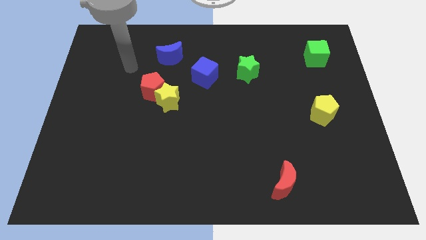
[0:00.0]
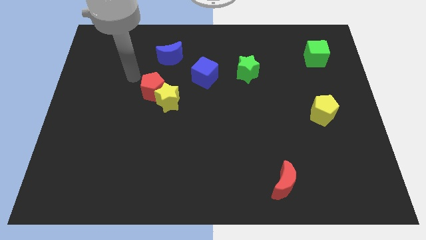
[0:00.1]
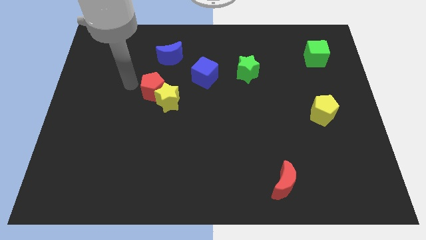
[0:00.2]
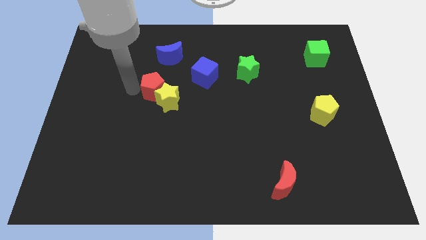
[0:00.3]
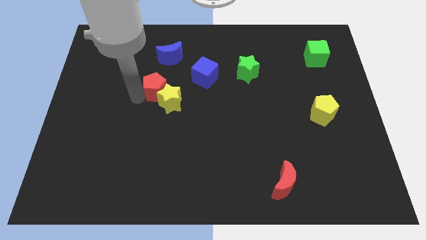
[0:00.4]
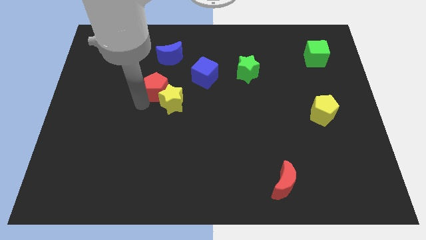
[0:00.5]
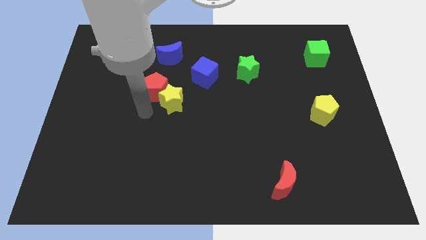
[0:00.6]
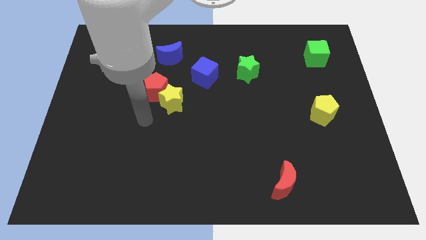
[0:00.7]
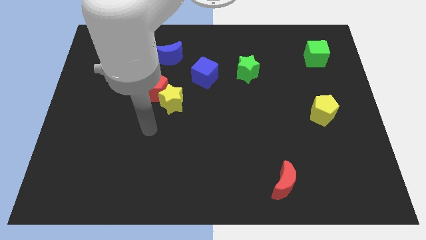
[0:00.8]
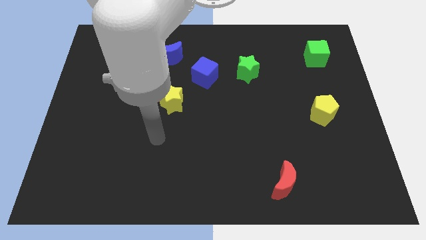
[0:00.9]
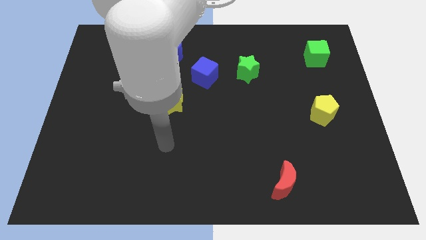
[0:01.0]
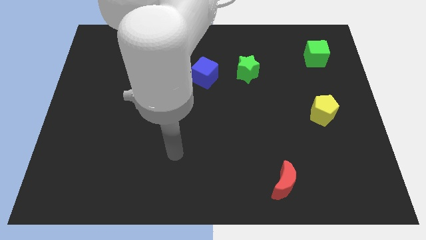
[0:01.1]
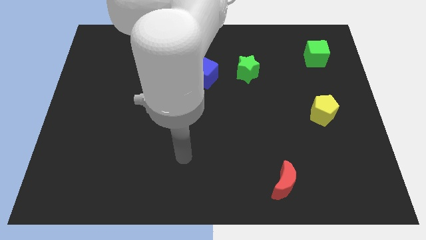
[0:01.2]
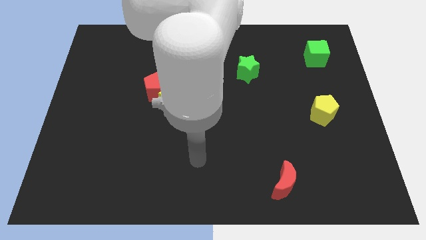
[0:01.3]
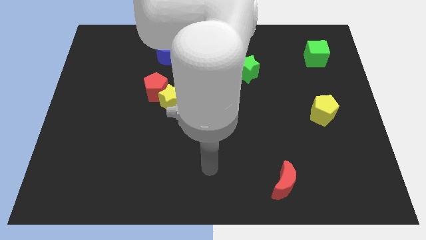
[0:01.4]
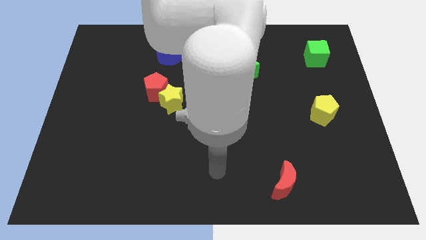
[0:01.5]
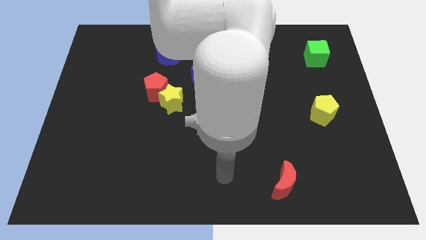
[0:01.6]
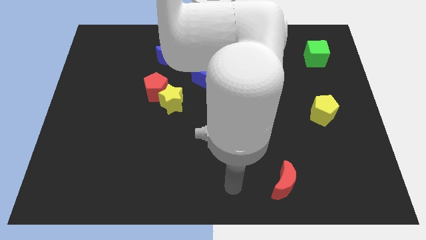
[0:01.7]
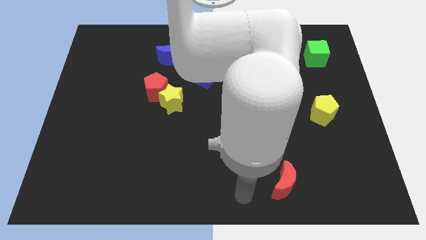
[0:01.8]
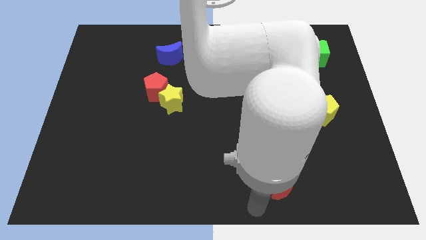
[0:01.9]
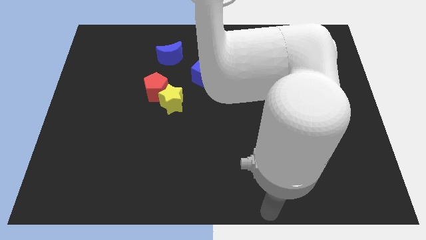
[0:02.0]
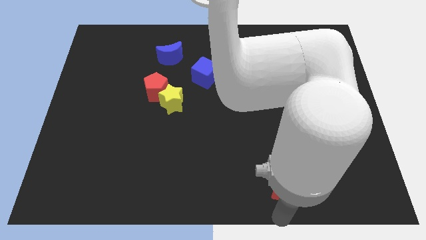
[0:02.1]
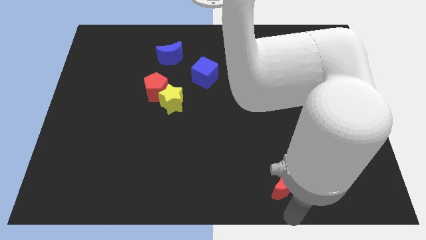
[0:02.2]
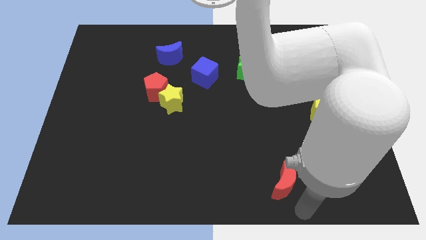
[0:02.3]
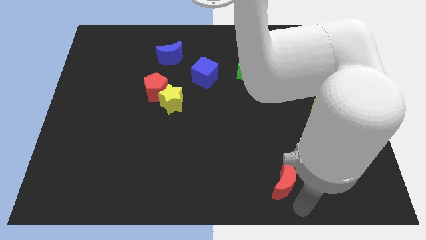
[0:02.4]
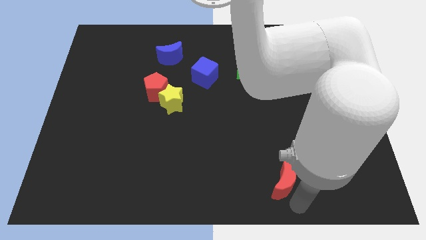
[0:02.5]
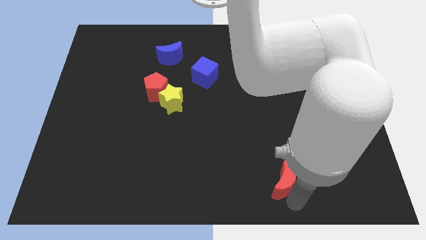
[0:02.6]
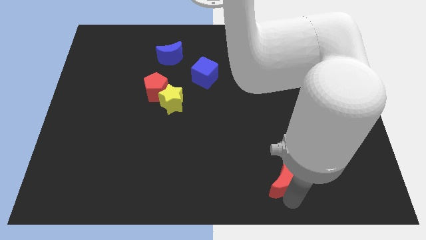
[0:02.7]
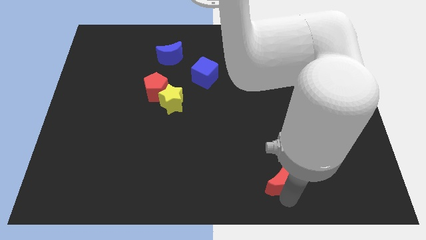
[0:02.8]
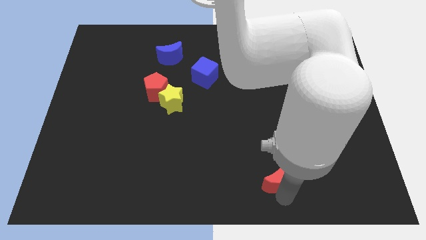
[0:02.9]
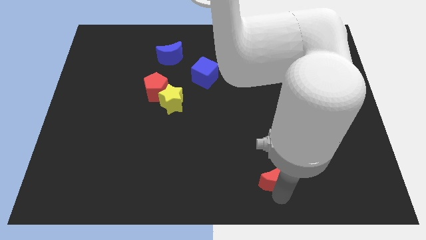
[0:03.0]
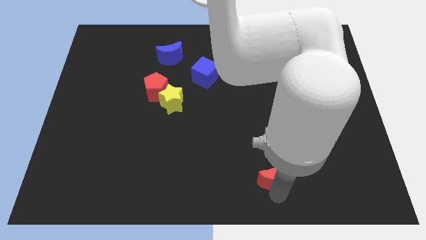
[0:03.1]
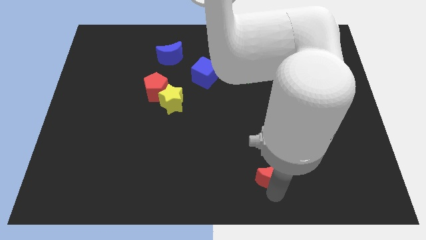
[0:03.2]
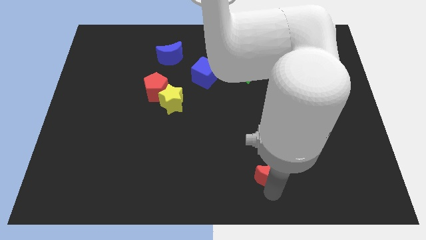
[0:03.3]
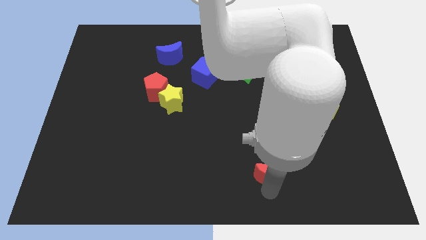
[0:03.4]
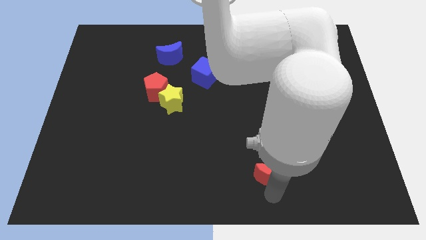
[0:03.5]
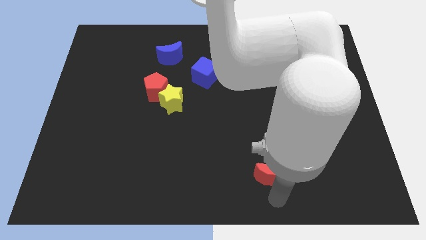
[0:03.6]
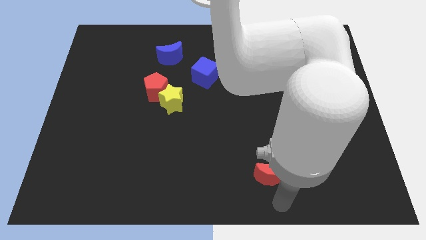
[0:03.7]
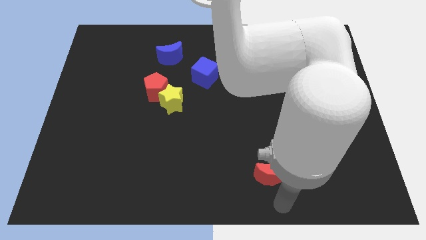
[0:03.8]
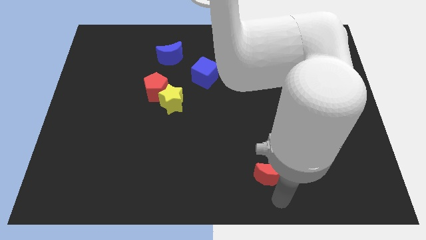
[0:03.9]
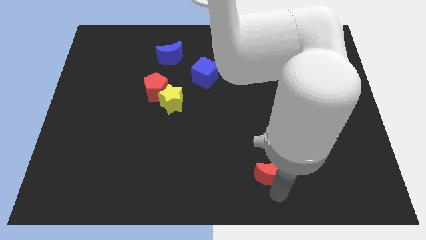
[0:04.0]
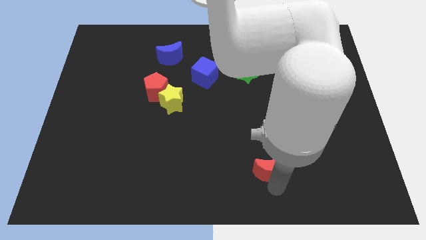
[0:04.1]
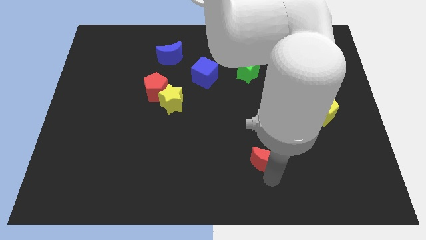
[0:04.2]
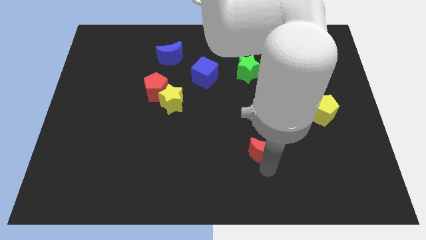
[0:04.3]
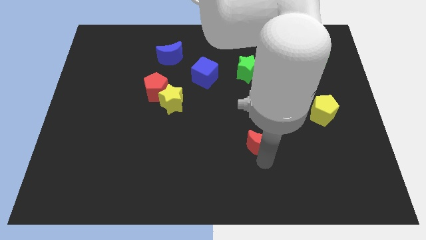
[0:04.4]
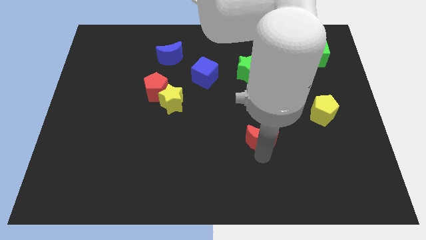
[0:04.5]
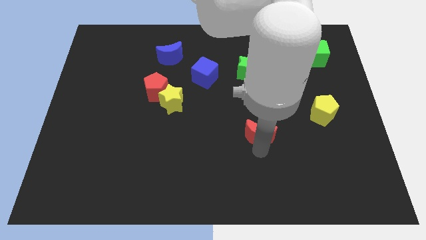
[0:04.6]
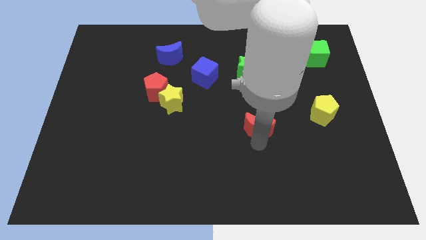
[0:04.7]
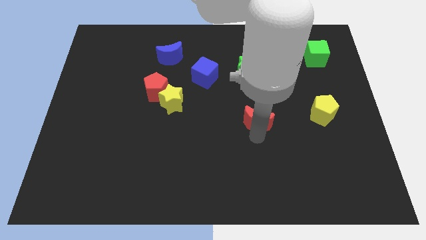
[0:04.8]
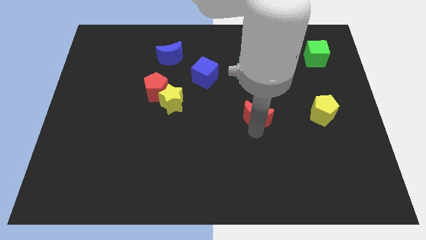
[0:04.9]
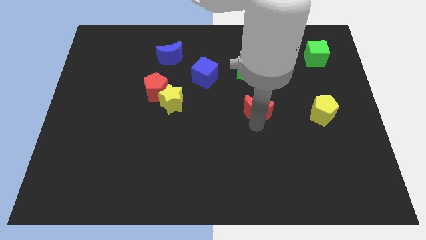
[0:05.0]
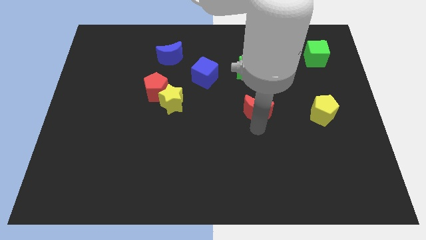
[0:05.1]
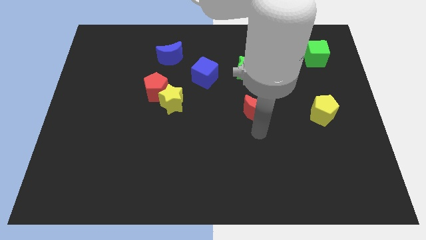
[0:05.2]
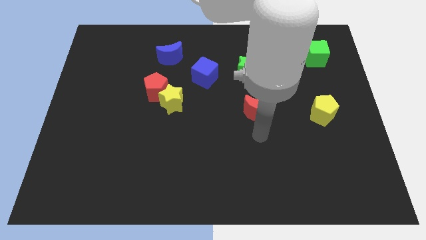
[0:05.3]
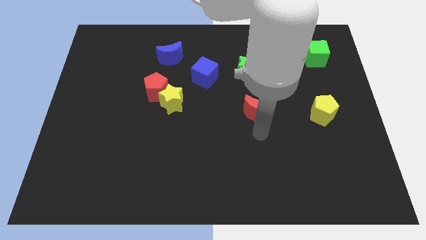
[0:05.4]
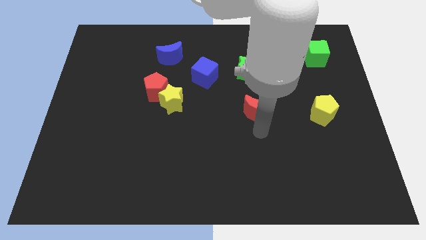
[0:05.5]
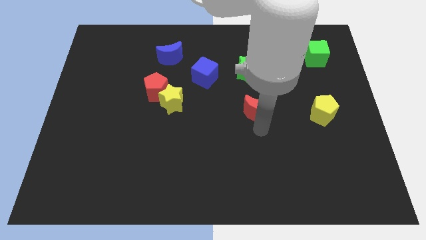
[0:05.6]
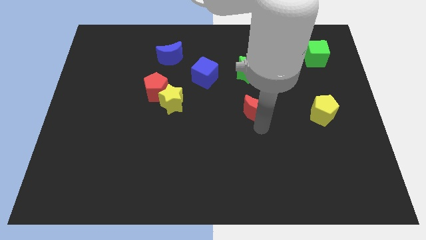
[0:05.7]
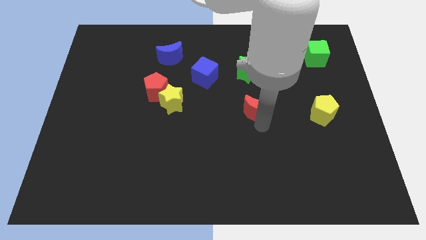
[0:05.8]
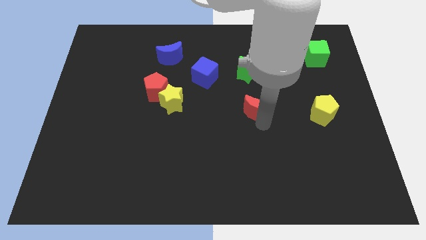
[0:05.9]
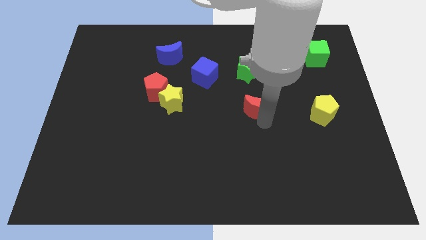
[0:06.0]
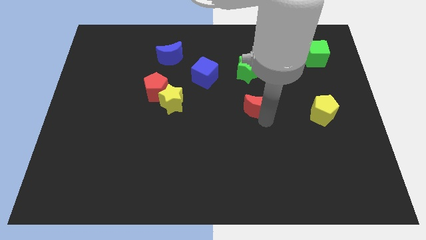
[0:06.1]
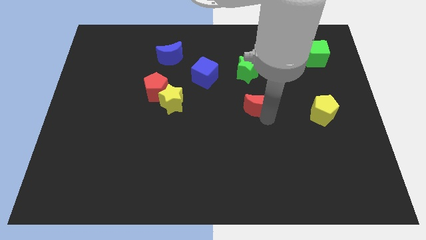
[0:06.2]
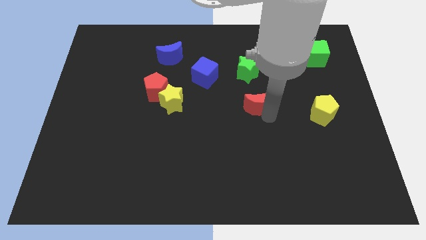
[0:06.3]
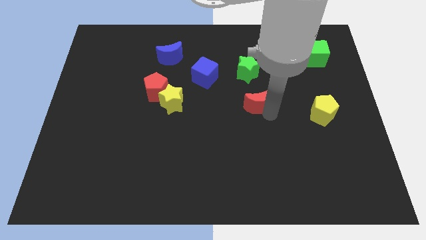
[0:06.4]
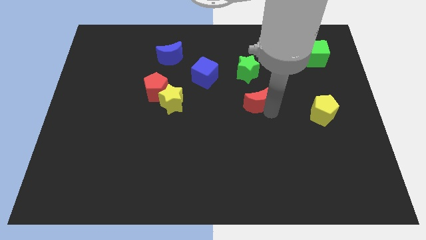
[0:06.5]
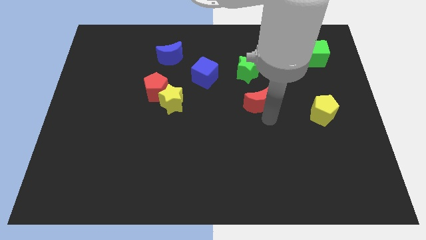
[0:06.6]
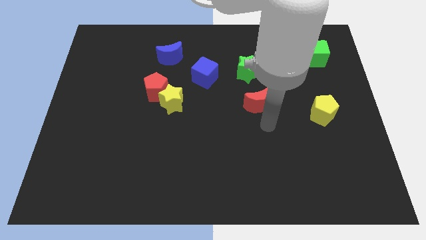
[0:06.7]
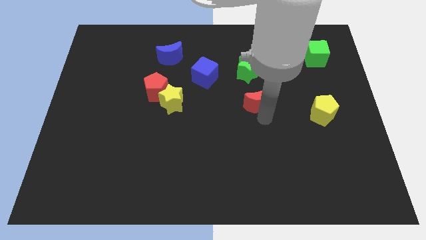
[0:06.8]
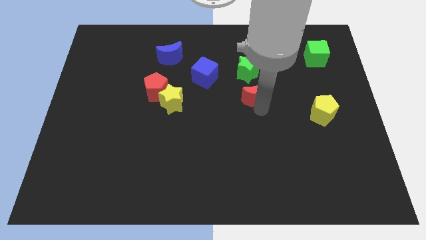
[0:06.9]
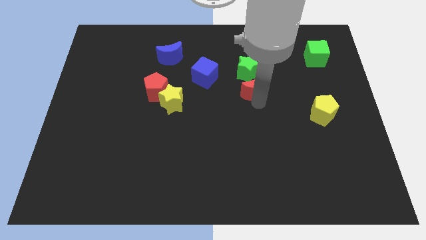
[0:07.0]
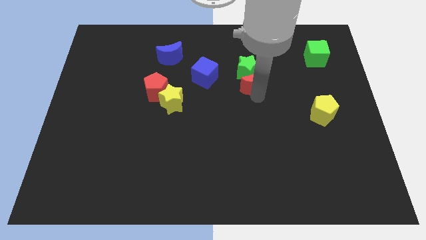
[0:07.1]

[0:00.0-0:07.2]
move the red moon to the green star
